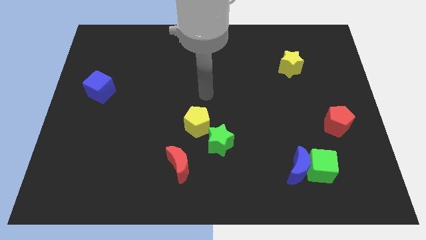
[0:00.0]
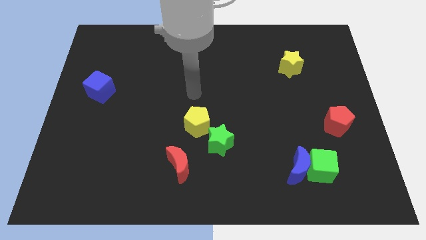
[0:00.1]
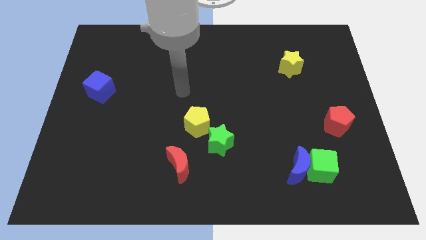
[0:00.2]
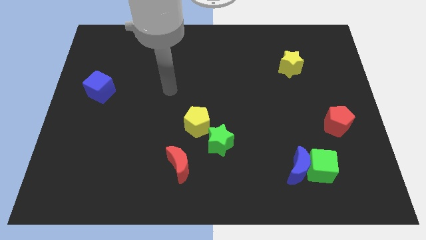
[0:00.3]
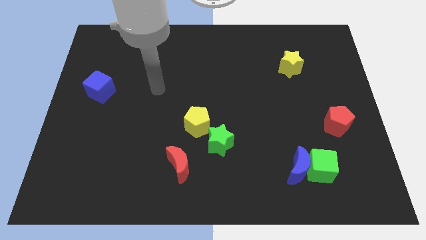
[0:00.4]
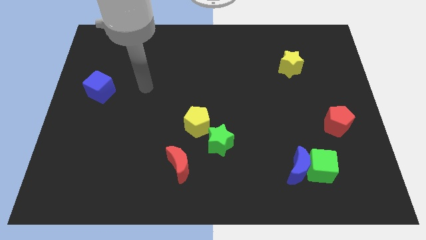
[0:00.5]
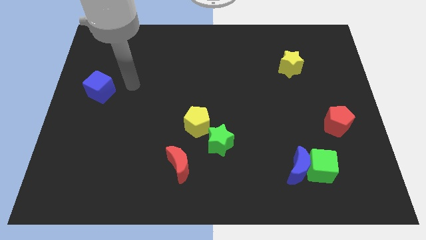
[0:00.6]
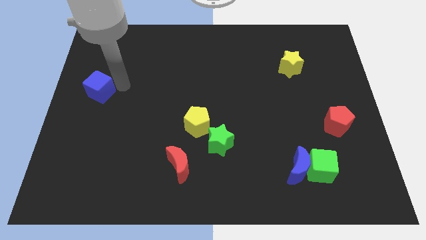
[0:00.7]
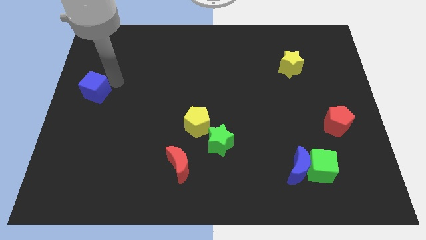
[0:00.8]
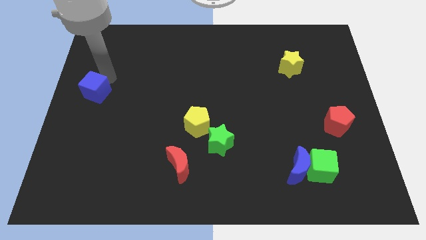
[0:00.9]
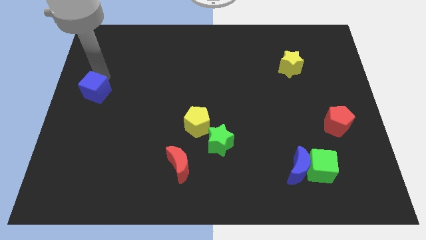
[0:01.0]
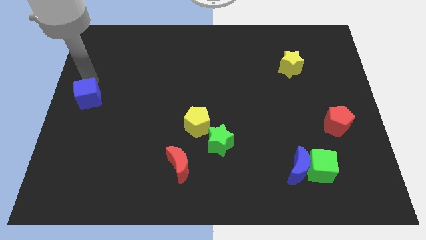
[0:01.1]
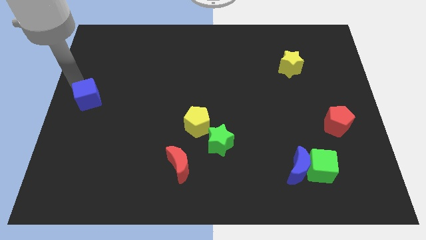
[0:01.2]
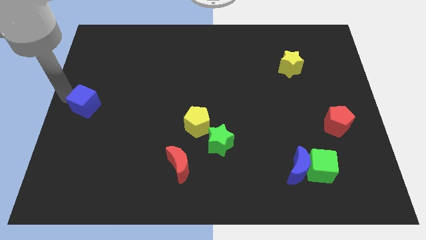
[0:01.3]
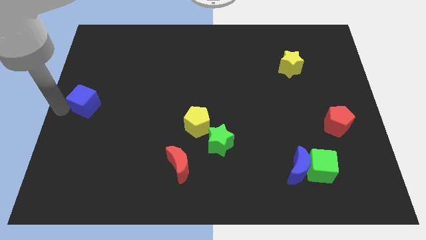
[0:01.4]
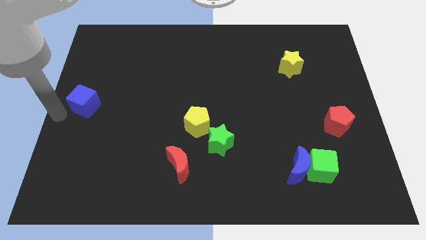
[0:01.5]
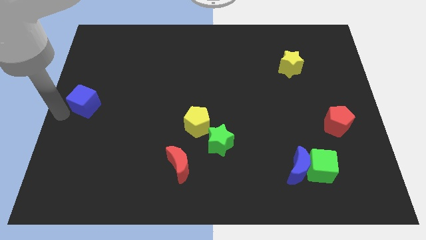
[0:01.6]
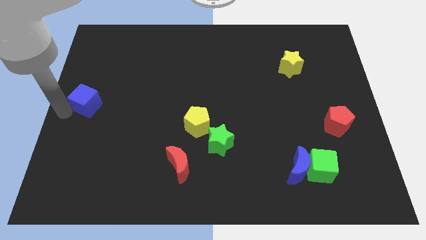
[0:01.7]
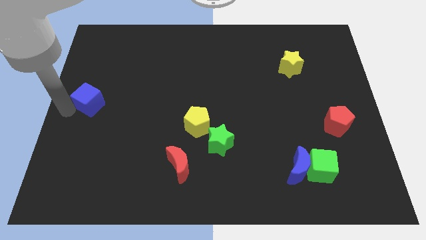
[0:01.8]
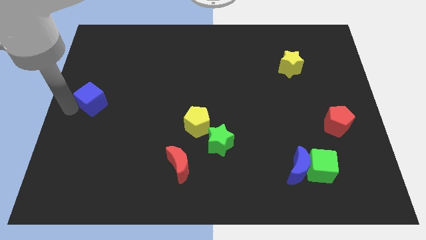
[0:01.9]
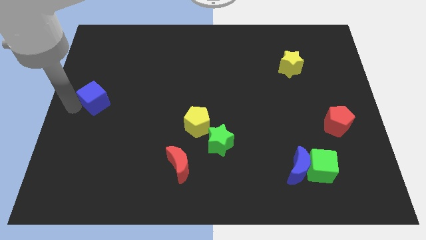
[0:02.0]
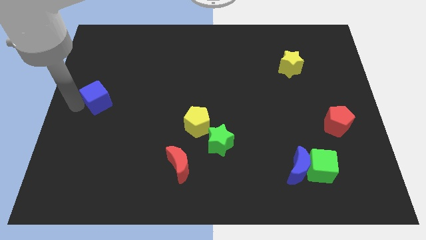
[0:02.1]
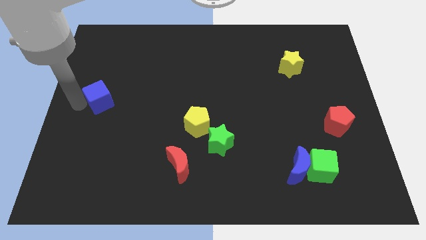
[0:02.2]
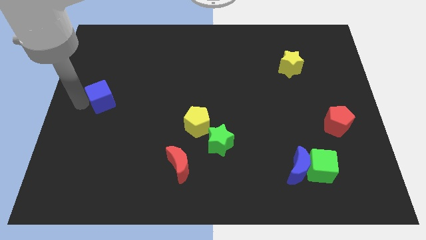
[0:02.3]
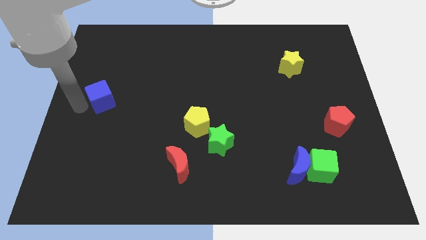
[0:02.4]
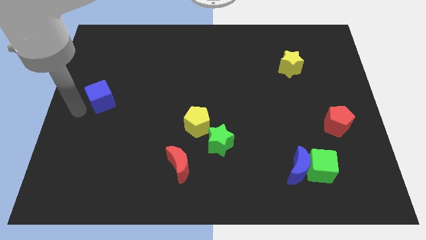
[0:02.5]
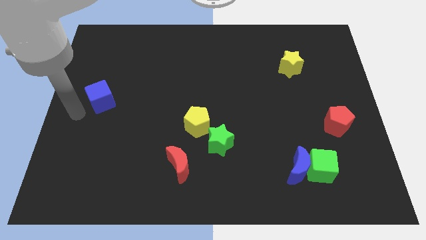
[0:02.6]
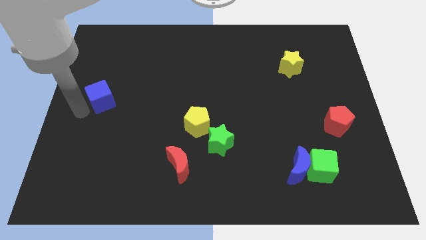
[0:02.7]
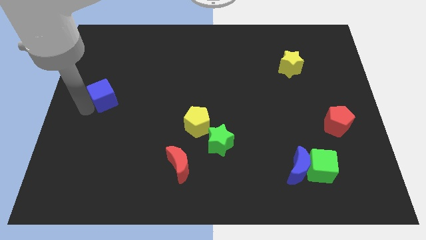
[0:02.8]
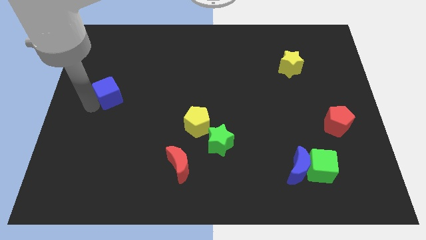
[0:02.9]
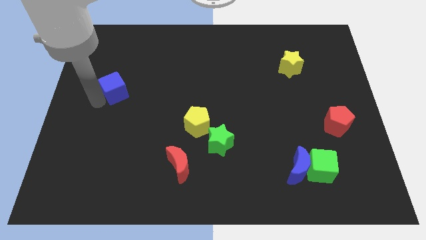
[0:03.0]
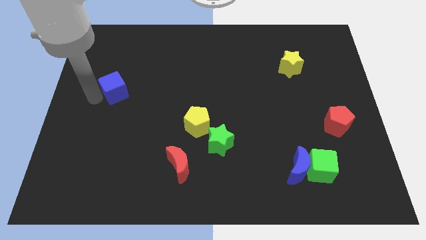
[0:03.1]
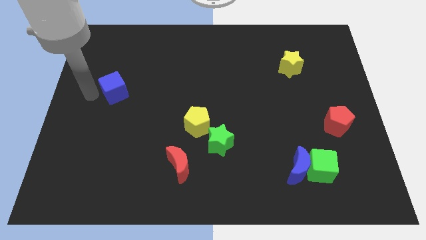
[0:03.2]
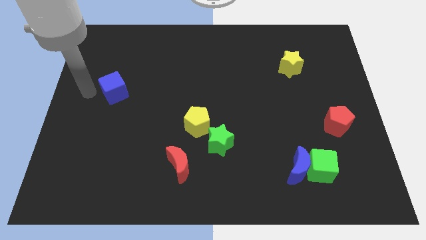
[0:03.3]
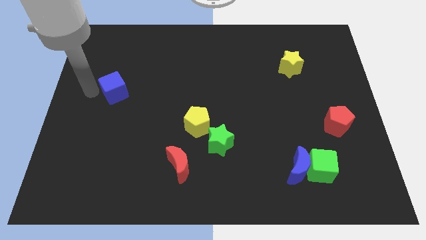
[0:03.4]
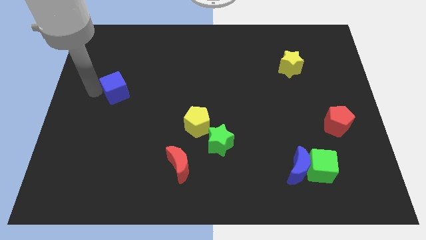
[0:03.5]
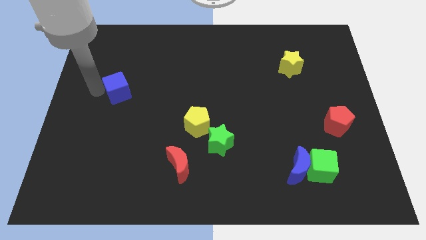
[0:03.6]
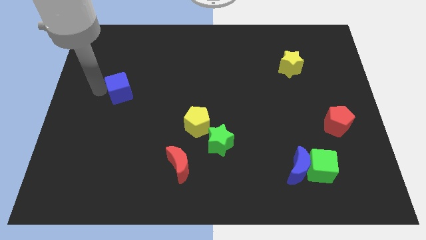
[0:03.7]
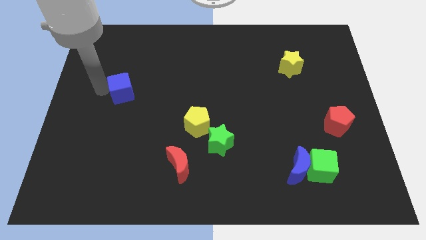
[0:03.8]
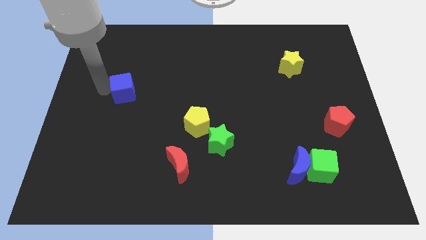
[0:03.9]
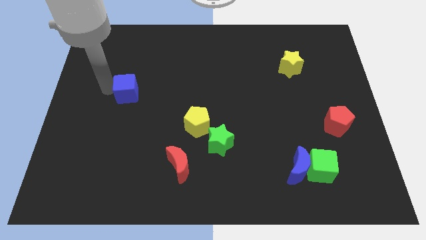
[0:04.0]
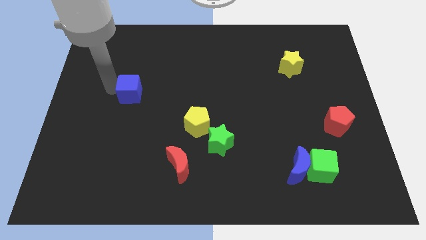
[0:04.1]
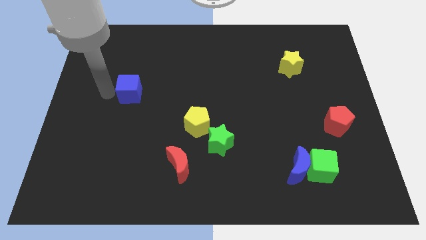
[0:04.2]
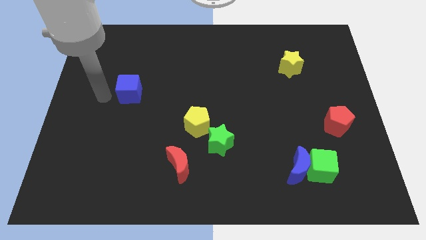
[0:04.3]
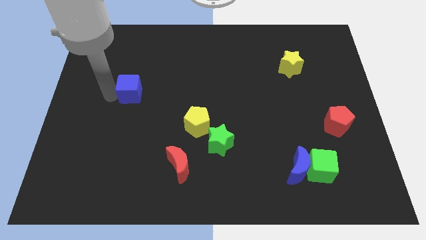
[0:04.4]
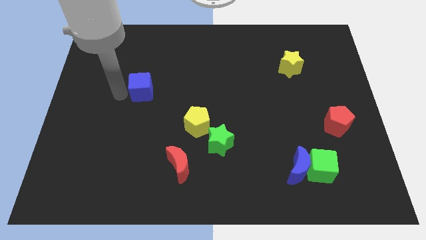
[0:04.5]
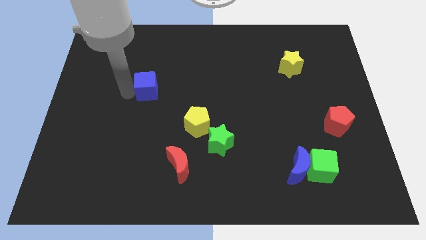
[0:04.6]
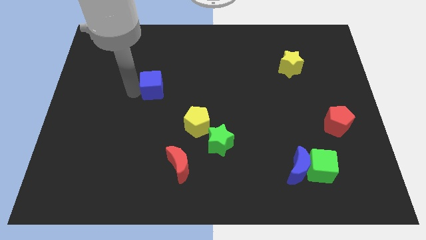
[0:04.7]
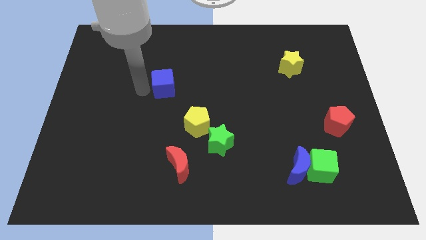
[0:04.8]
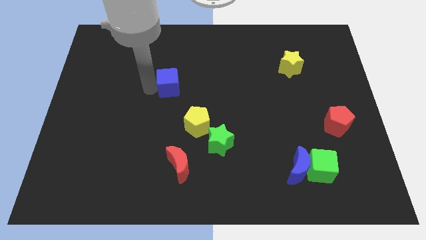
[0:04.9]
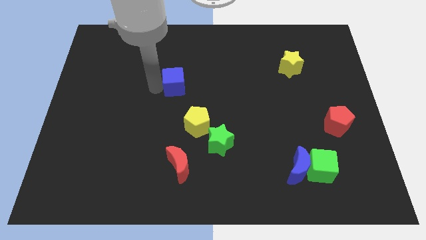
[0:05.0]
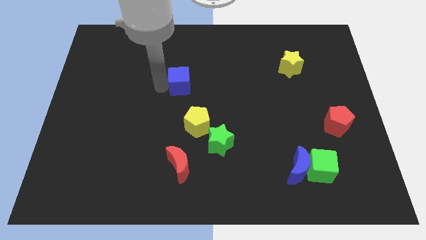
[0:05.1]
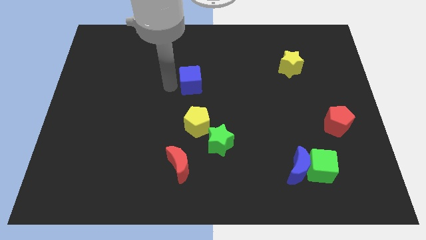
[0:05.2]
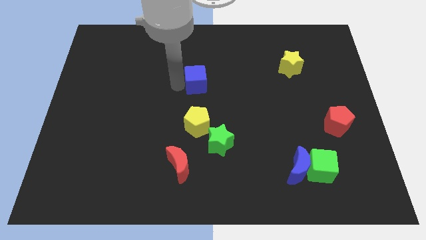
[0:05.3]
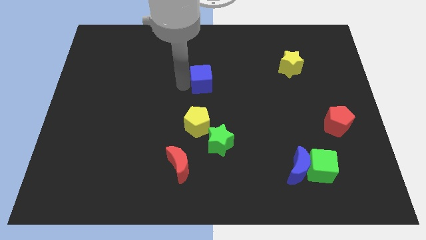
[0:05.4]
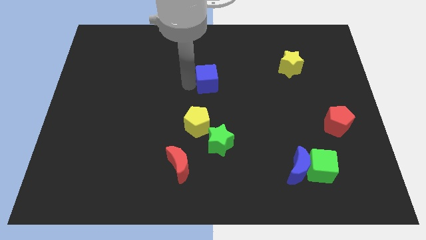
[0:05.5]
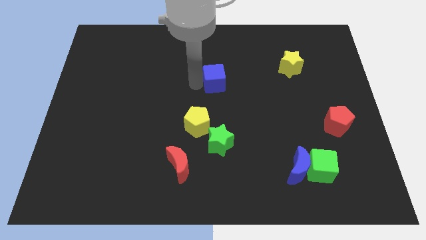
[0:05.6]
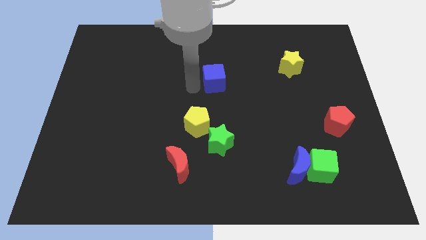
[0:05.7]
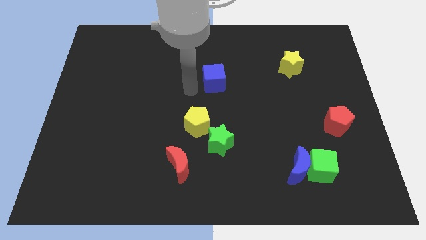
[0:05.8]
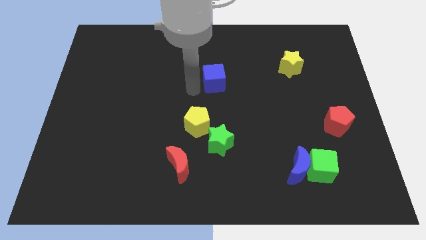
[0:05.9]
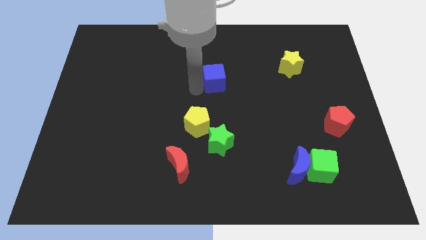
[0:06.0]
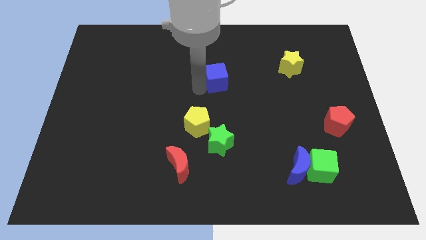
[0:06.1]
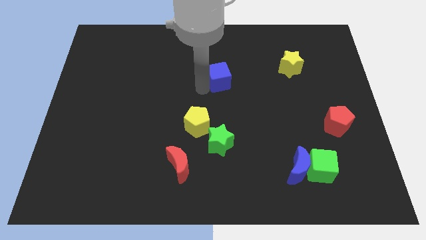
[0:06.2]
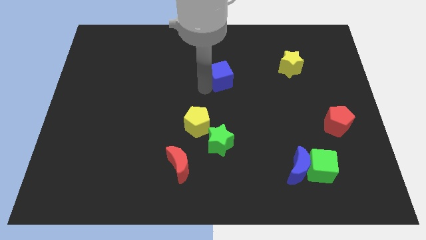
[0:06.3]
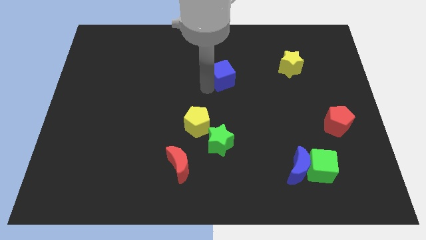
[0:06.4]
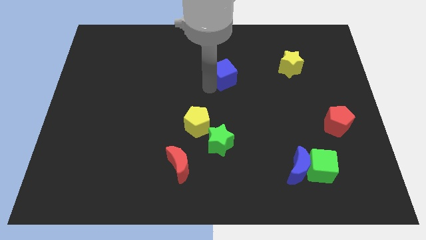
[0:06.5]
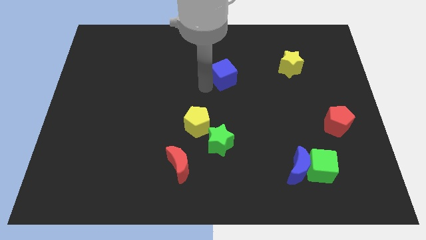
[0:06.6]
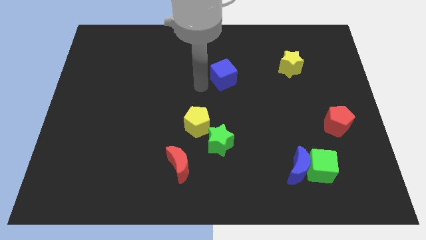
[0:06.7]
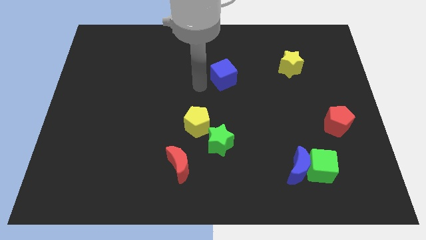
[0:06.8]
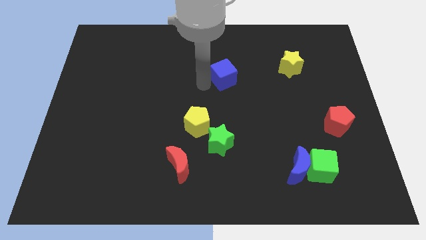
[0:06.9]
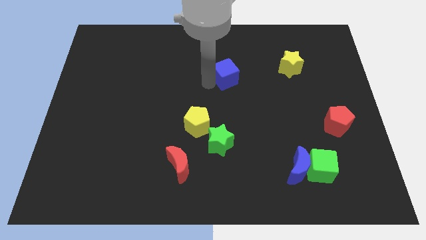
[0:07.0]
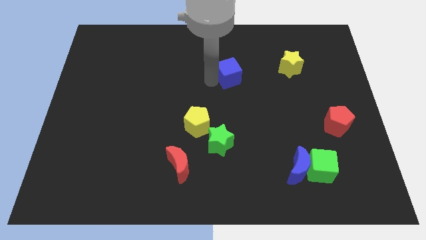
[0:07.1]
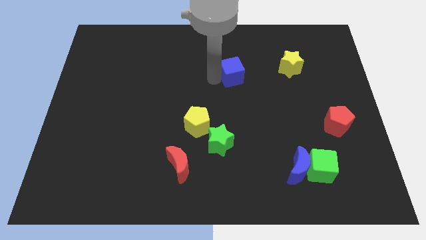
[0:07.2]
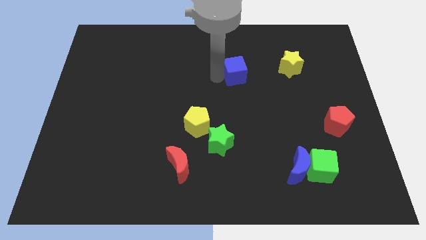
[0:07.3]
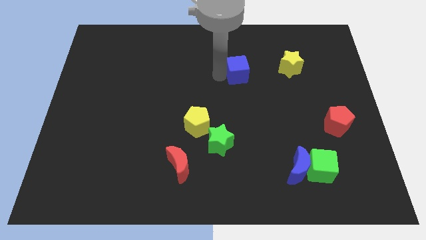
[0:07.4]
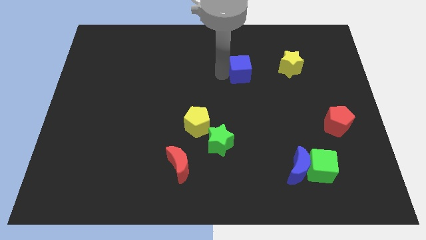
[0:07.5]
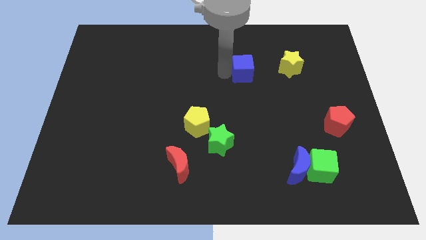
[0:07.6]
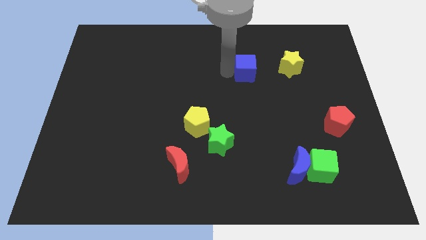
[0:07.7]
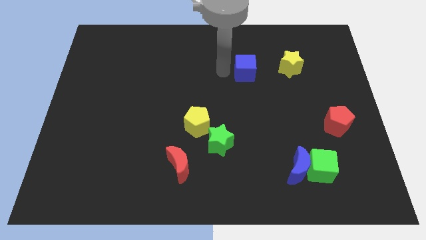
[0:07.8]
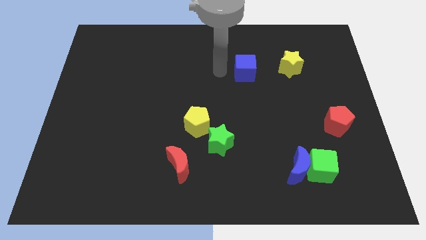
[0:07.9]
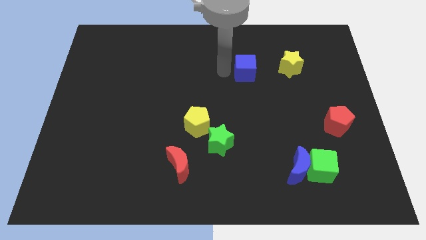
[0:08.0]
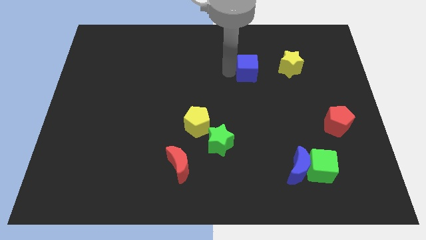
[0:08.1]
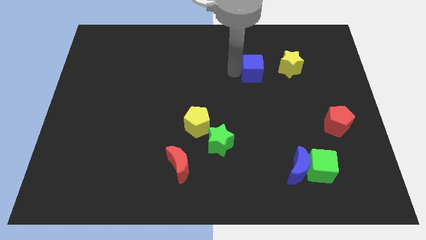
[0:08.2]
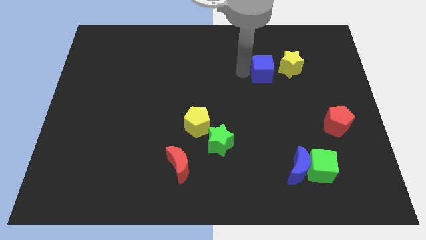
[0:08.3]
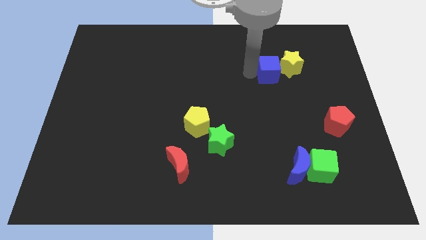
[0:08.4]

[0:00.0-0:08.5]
move the blue cube towards the yellow star
